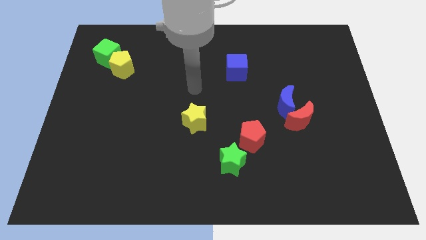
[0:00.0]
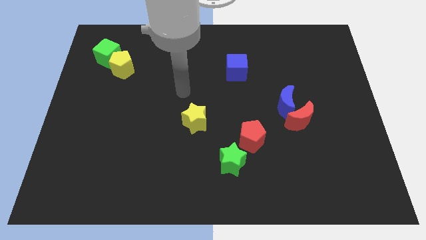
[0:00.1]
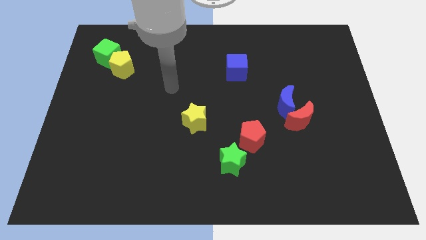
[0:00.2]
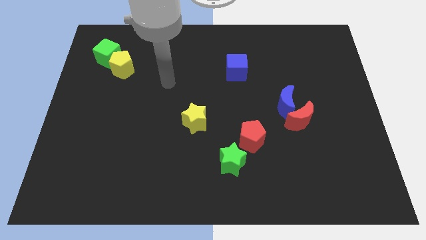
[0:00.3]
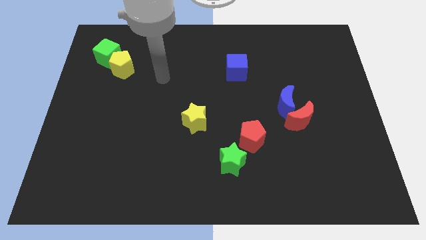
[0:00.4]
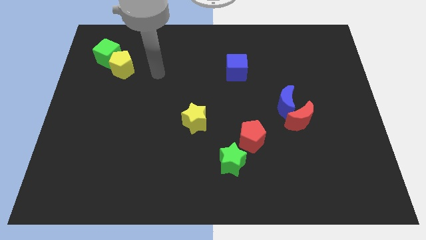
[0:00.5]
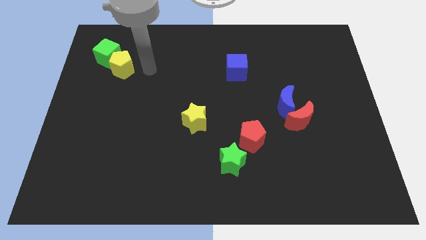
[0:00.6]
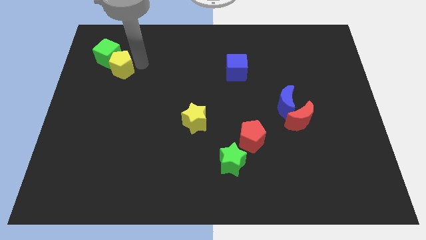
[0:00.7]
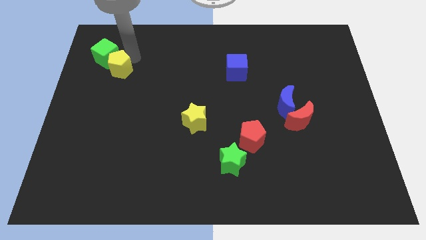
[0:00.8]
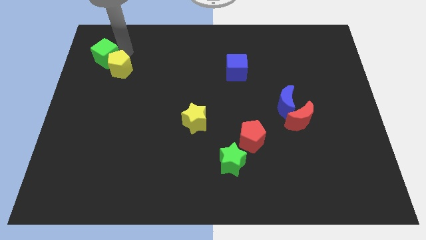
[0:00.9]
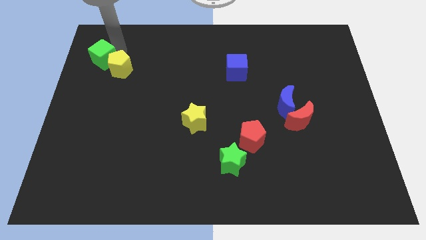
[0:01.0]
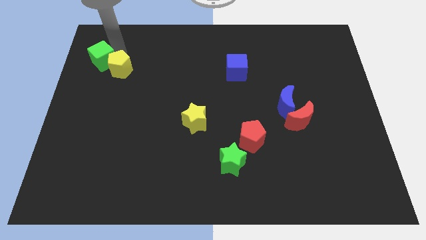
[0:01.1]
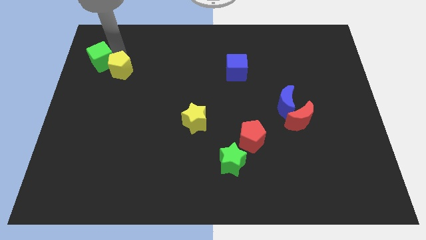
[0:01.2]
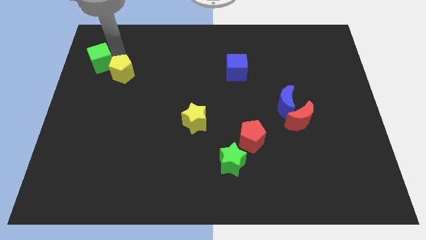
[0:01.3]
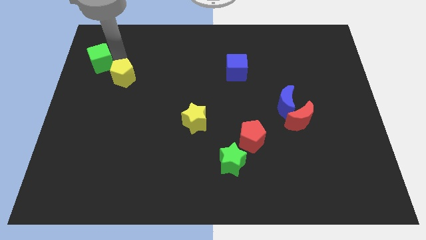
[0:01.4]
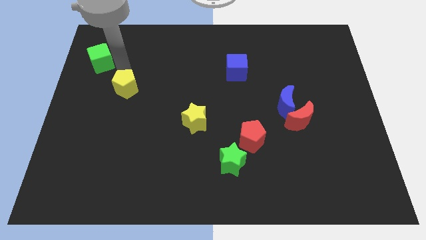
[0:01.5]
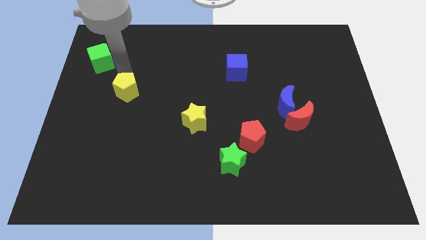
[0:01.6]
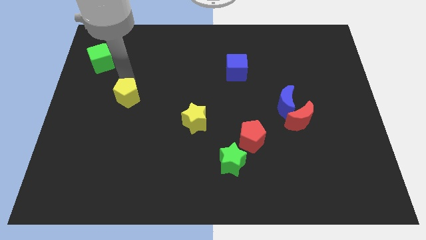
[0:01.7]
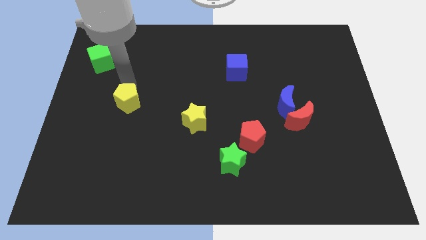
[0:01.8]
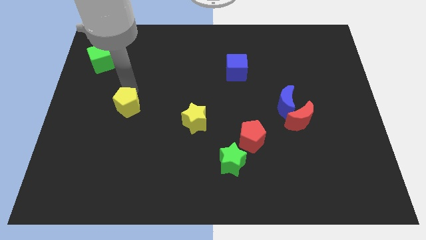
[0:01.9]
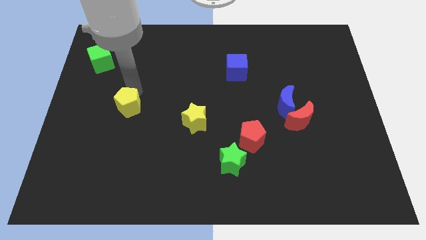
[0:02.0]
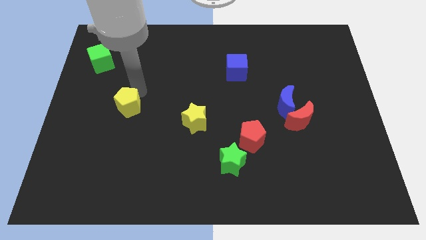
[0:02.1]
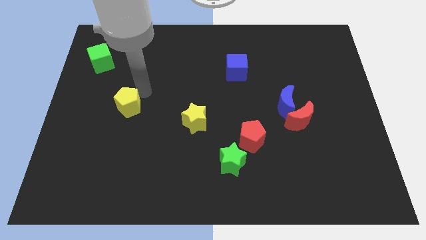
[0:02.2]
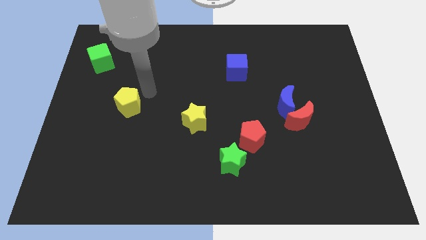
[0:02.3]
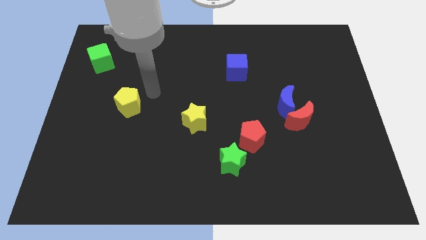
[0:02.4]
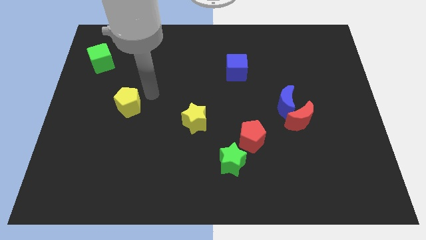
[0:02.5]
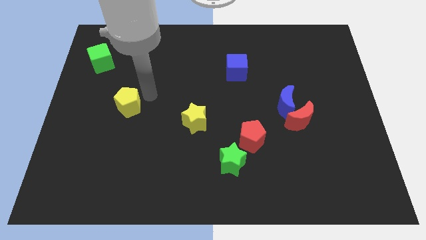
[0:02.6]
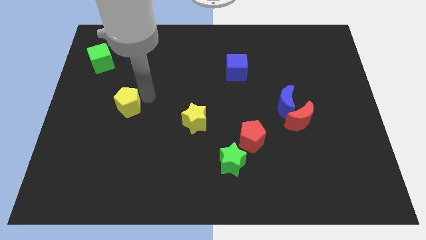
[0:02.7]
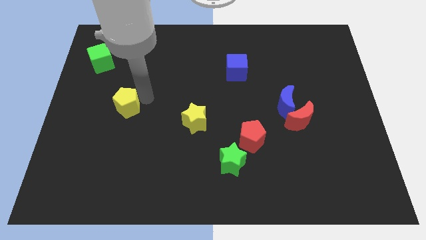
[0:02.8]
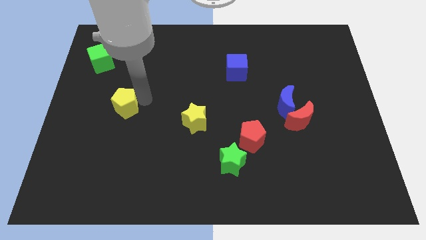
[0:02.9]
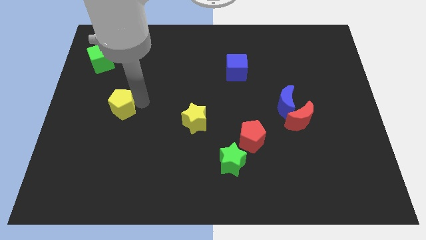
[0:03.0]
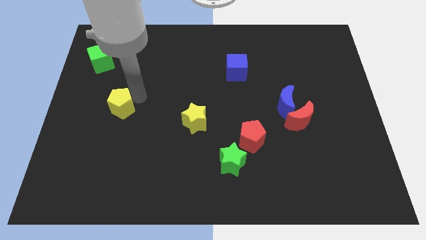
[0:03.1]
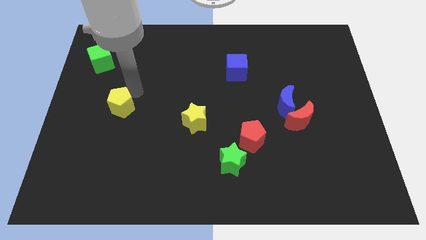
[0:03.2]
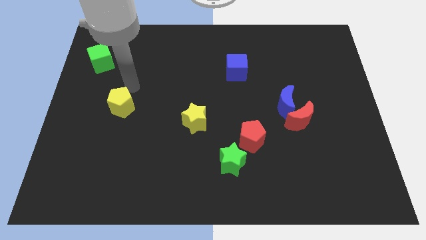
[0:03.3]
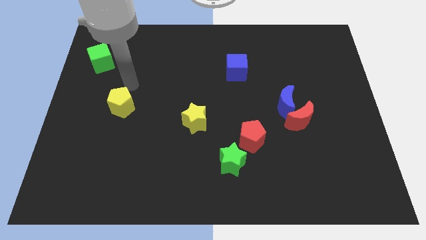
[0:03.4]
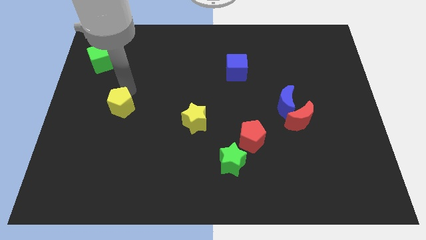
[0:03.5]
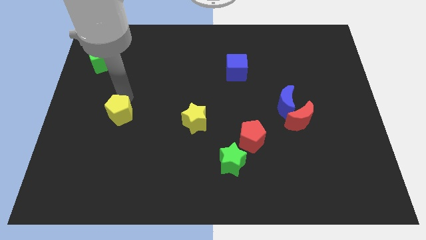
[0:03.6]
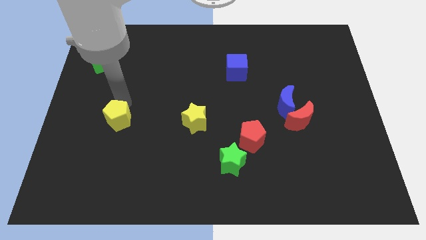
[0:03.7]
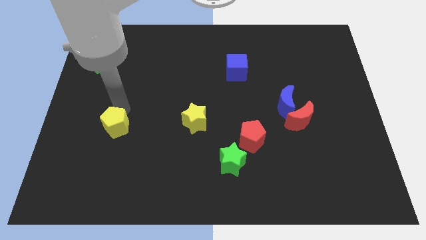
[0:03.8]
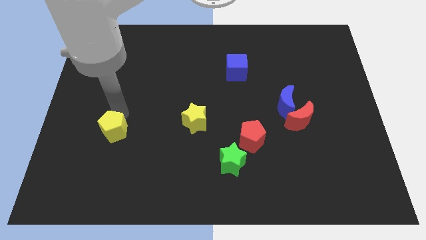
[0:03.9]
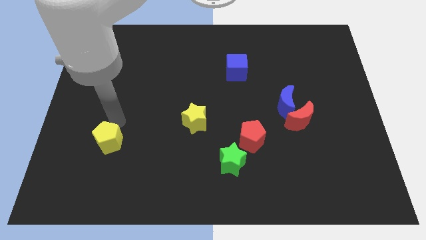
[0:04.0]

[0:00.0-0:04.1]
slide the yellow pentagon down

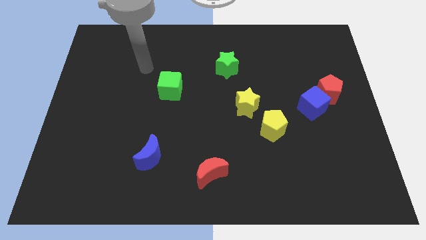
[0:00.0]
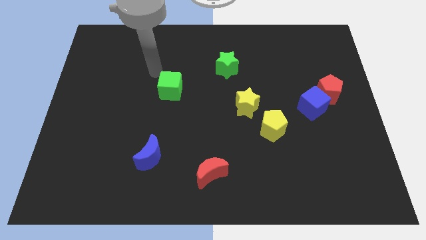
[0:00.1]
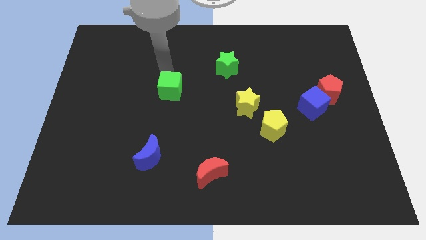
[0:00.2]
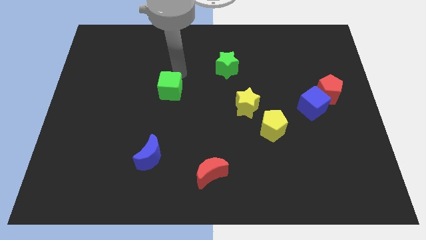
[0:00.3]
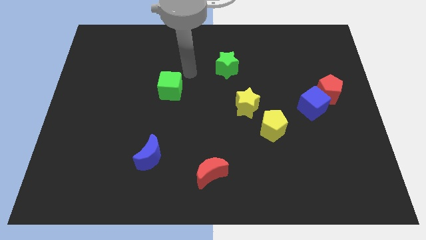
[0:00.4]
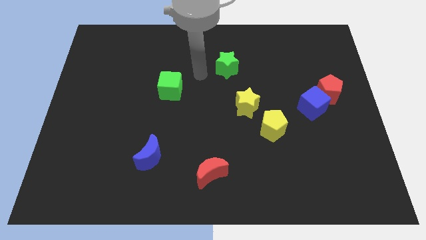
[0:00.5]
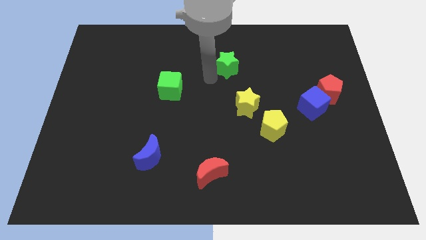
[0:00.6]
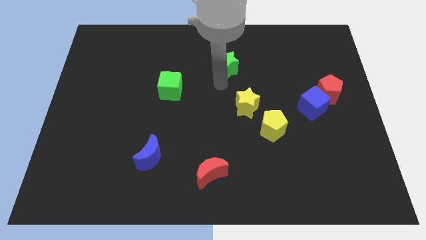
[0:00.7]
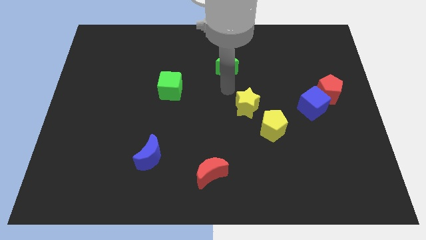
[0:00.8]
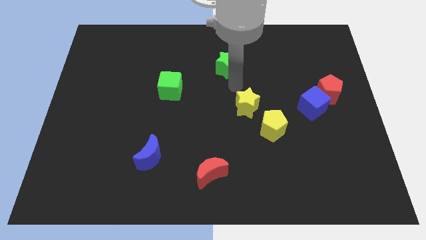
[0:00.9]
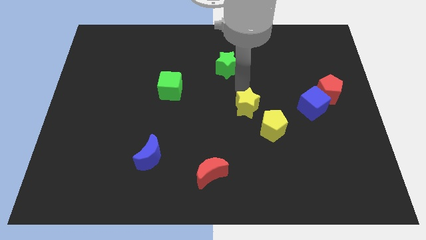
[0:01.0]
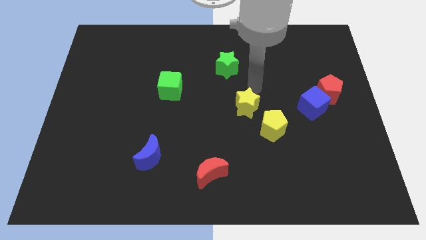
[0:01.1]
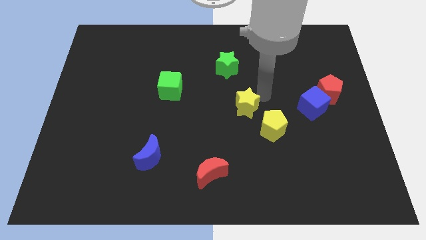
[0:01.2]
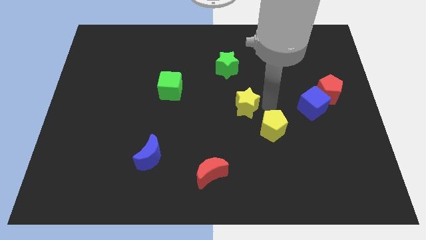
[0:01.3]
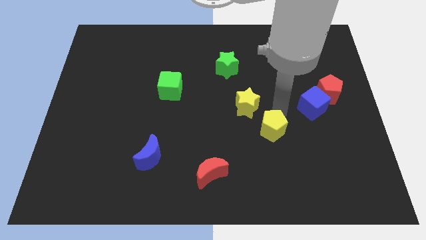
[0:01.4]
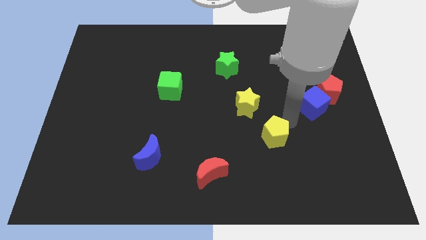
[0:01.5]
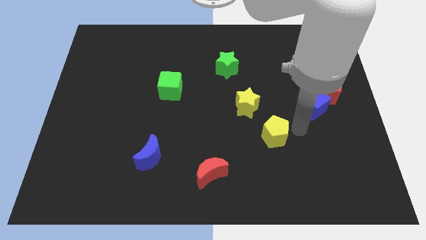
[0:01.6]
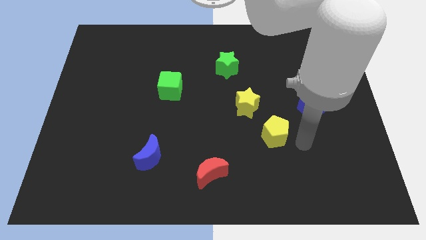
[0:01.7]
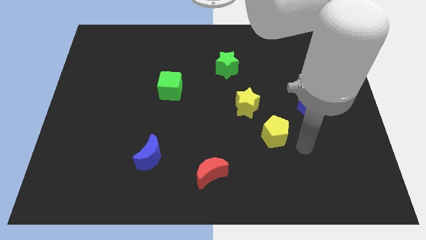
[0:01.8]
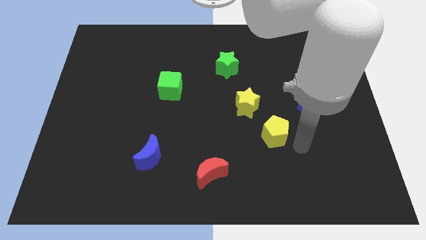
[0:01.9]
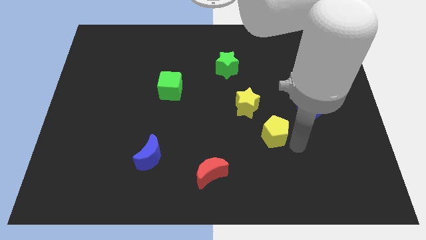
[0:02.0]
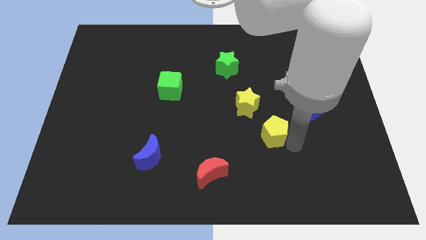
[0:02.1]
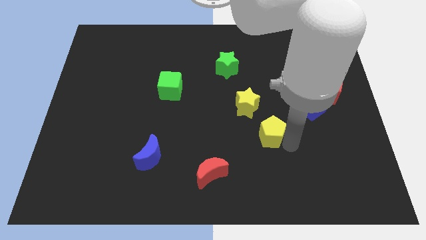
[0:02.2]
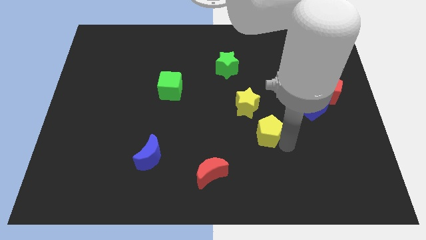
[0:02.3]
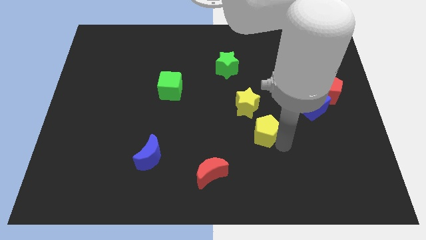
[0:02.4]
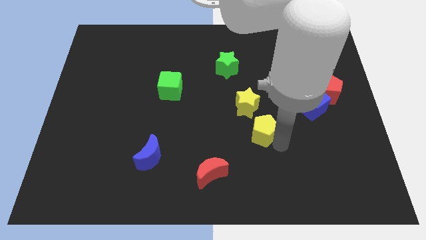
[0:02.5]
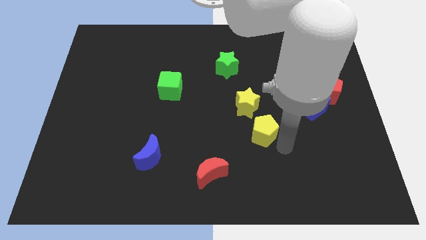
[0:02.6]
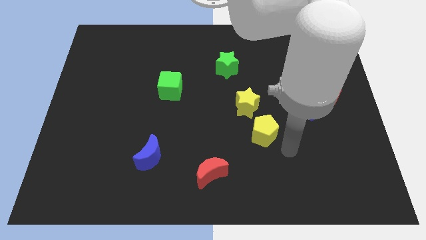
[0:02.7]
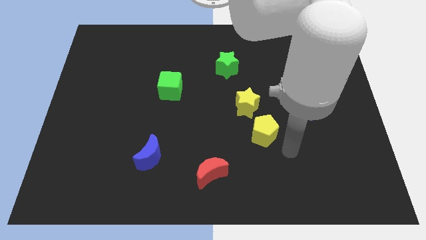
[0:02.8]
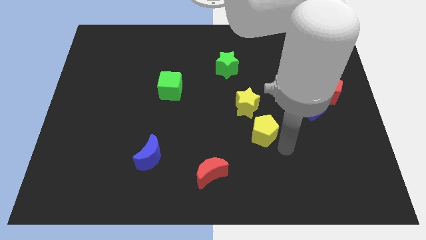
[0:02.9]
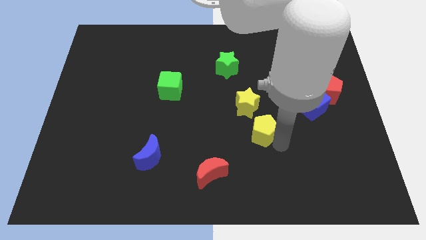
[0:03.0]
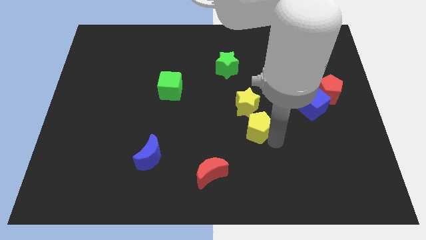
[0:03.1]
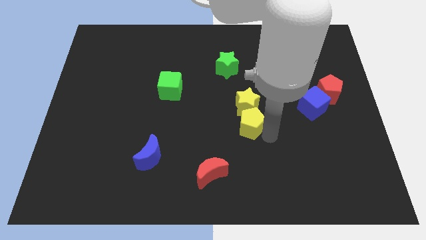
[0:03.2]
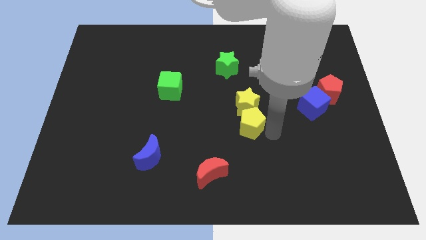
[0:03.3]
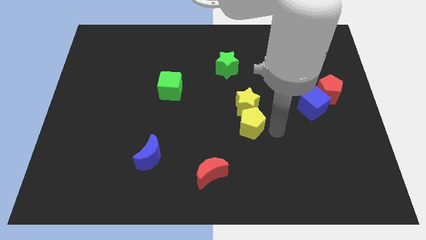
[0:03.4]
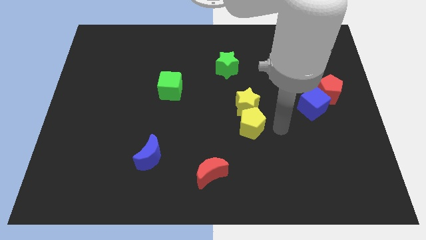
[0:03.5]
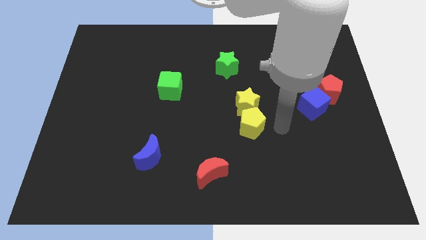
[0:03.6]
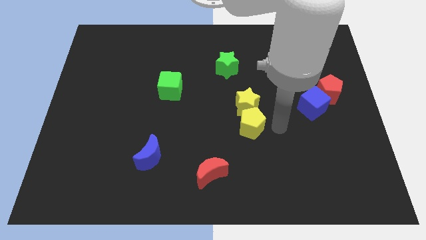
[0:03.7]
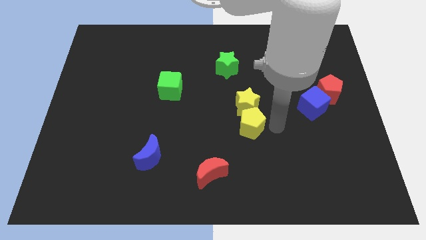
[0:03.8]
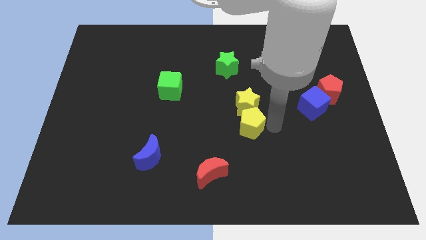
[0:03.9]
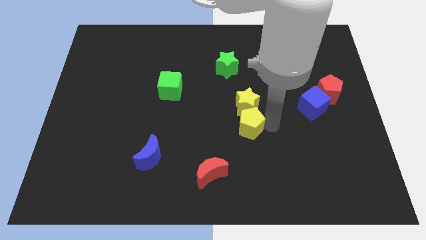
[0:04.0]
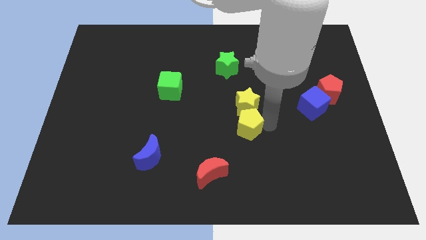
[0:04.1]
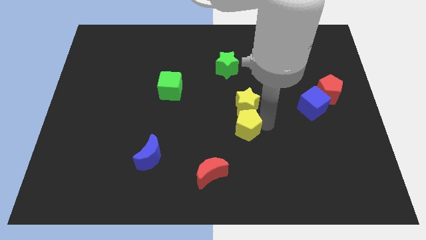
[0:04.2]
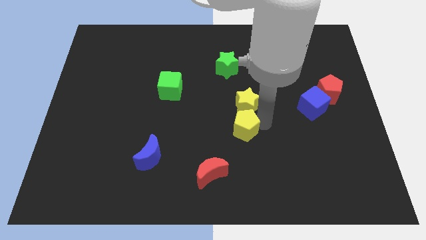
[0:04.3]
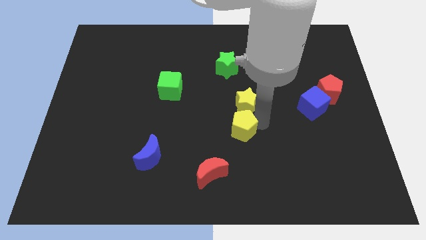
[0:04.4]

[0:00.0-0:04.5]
move the yellow pentagon left slightly
